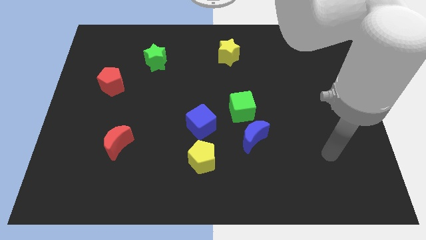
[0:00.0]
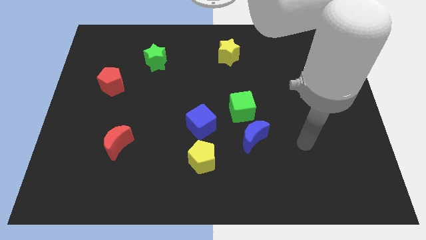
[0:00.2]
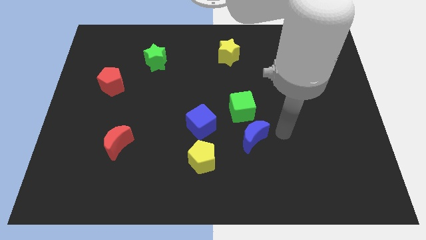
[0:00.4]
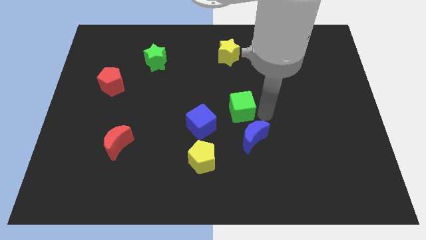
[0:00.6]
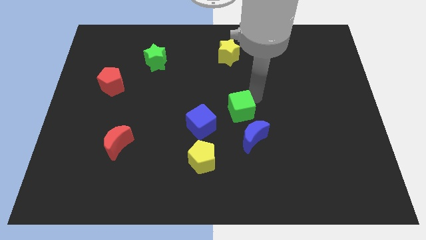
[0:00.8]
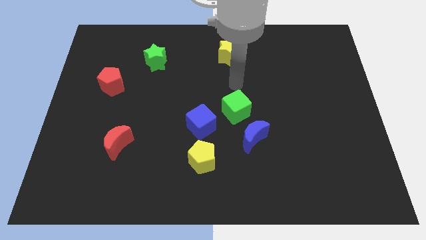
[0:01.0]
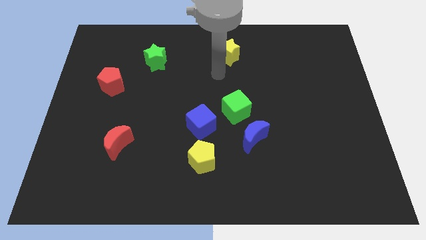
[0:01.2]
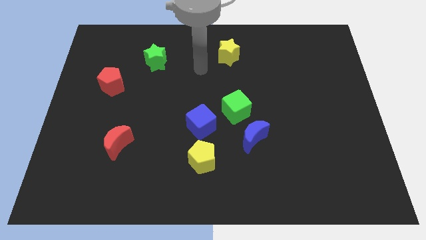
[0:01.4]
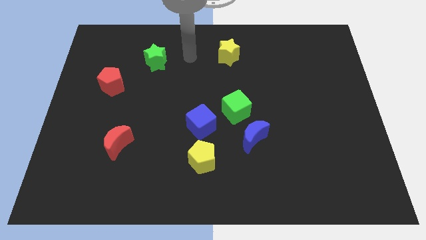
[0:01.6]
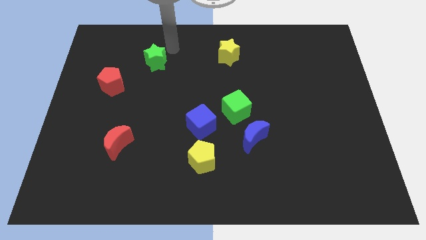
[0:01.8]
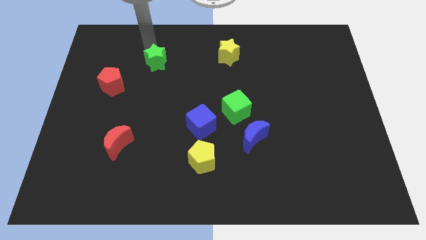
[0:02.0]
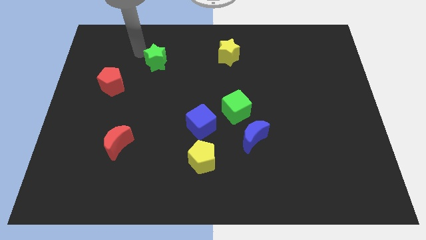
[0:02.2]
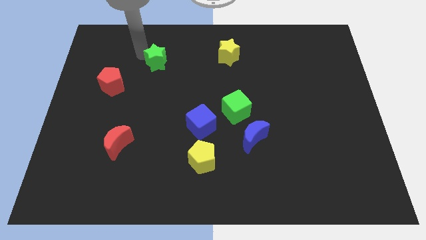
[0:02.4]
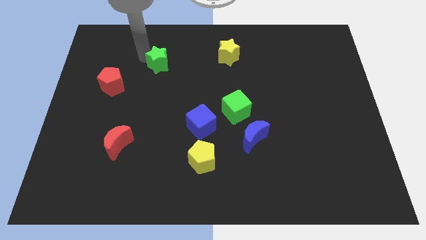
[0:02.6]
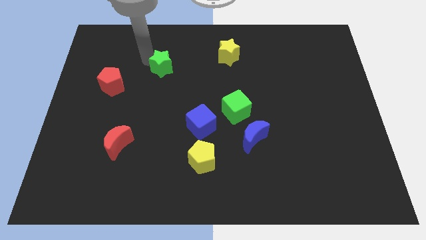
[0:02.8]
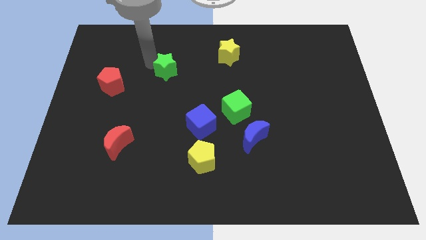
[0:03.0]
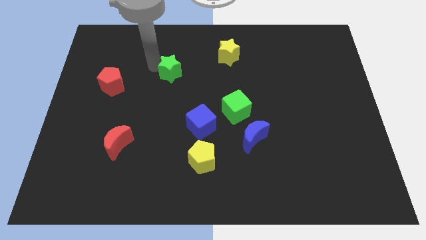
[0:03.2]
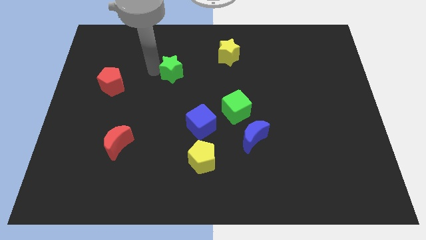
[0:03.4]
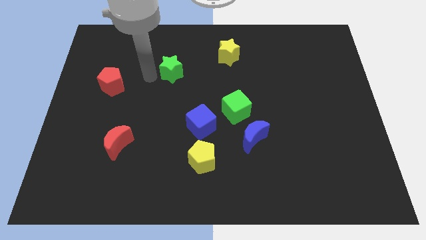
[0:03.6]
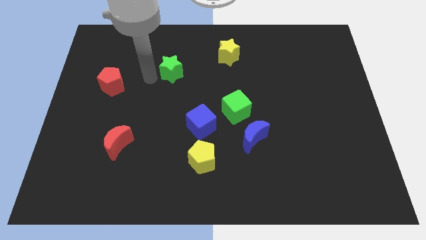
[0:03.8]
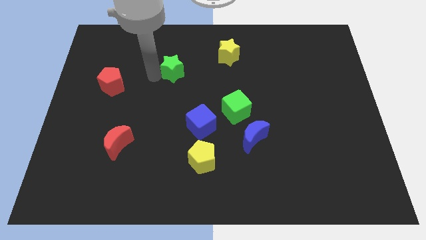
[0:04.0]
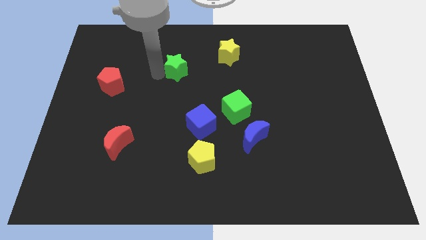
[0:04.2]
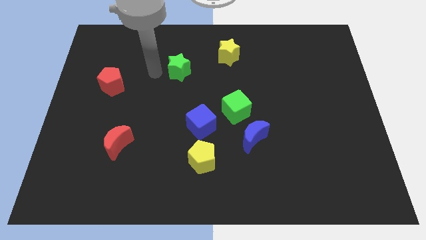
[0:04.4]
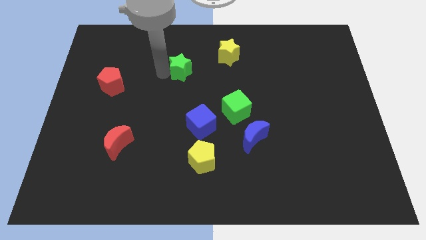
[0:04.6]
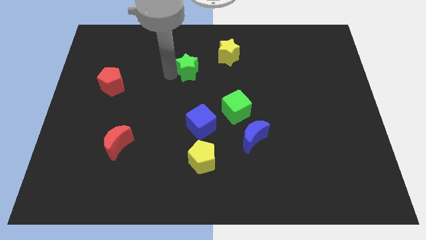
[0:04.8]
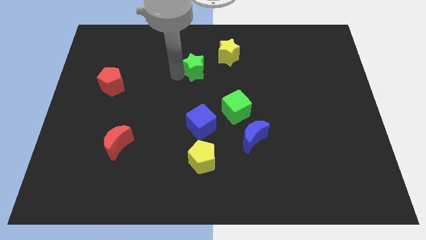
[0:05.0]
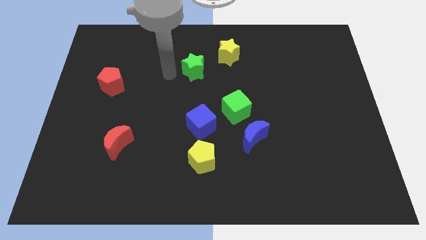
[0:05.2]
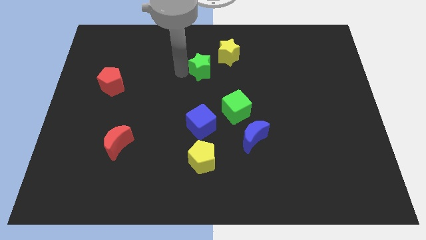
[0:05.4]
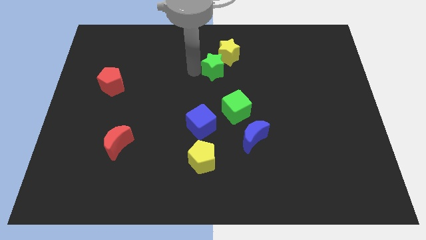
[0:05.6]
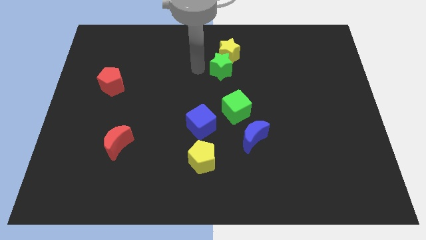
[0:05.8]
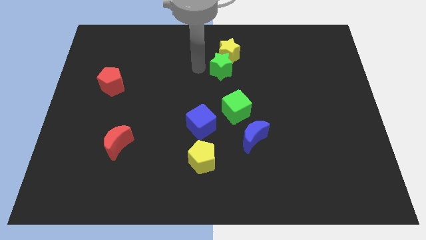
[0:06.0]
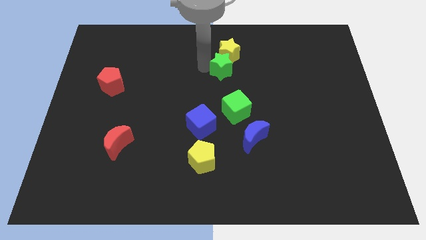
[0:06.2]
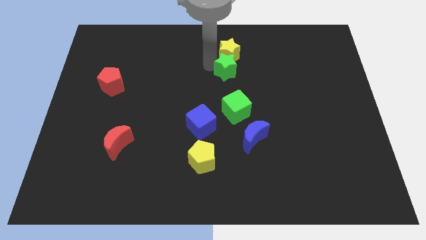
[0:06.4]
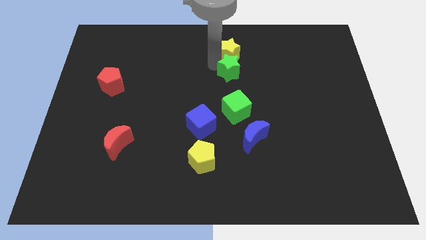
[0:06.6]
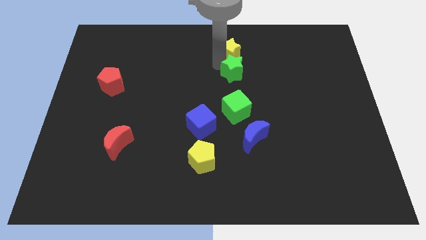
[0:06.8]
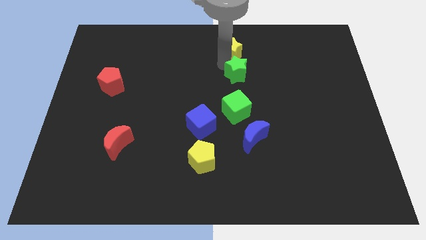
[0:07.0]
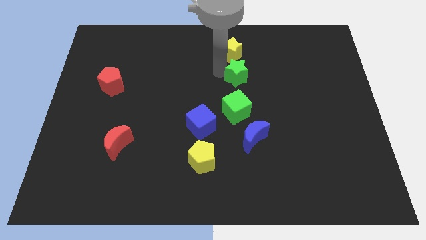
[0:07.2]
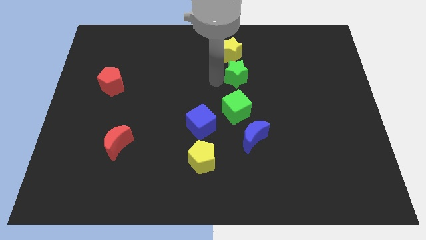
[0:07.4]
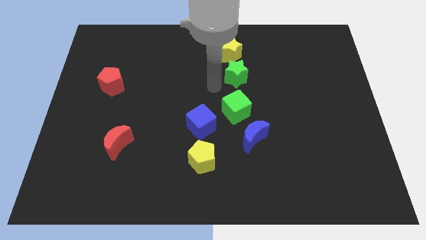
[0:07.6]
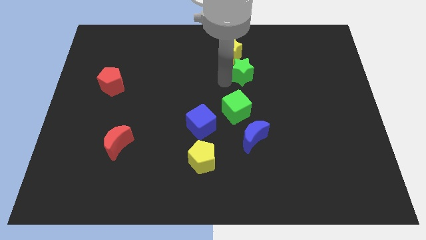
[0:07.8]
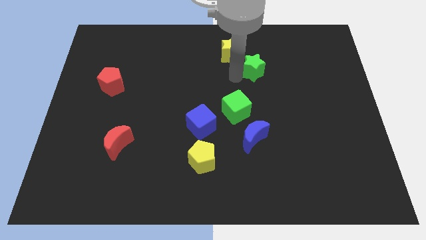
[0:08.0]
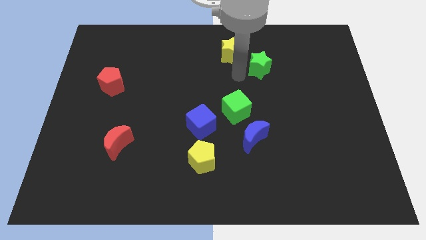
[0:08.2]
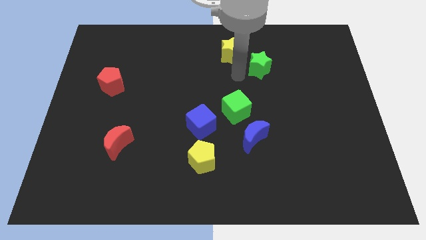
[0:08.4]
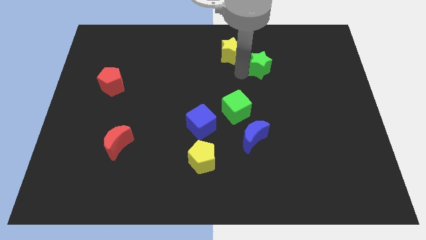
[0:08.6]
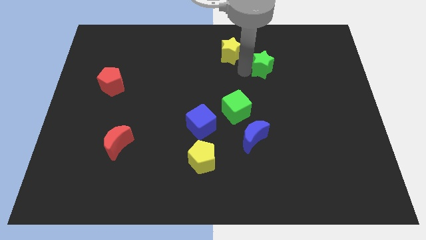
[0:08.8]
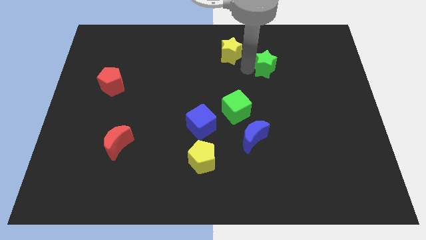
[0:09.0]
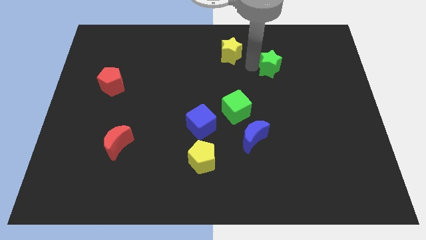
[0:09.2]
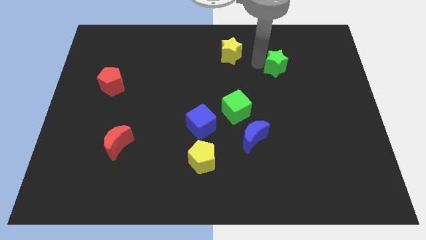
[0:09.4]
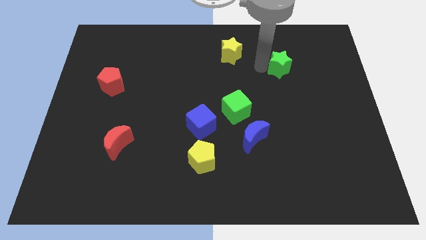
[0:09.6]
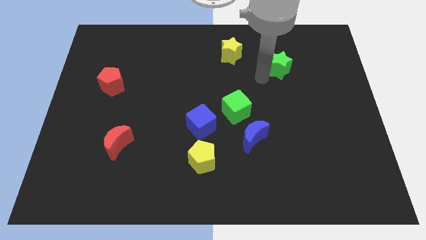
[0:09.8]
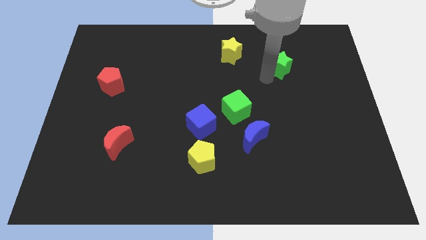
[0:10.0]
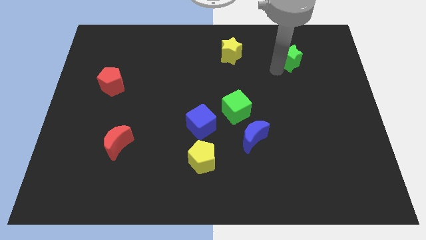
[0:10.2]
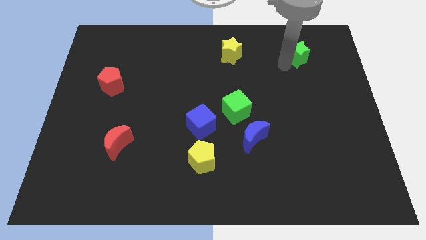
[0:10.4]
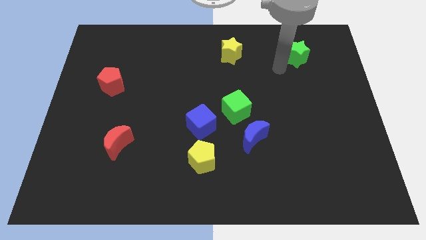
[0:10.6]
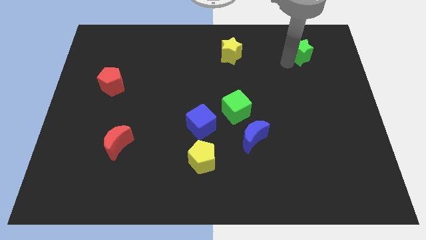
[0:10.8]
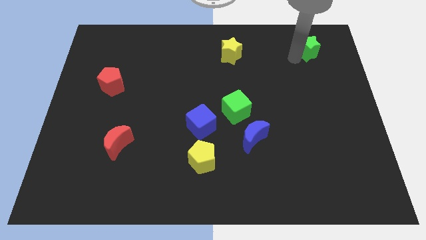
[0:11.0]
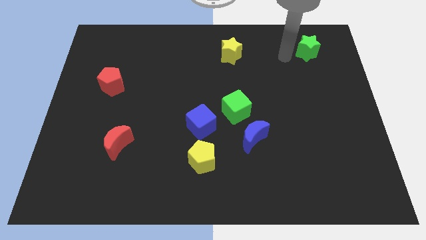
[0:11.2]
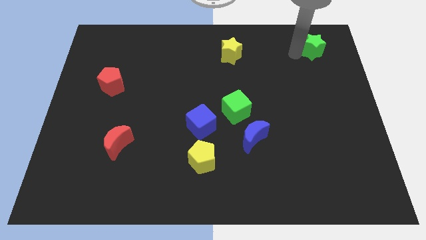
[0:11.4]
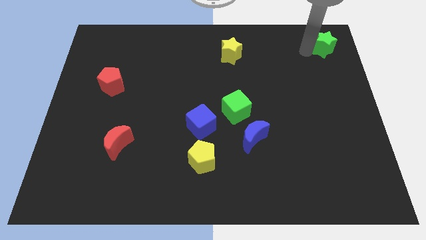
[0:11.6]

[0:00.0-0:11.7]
slide the green star to the top right corner
